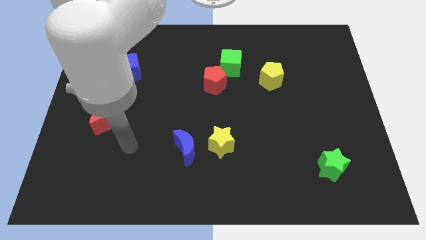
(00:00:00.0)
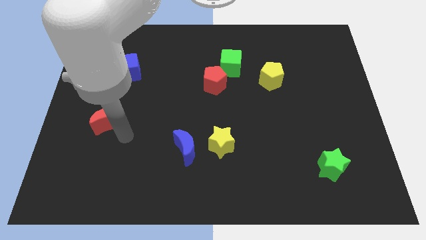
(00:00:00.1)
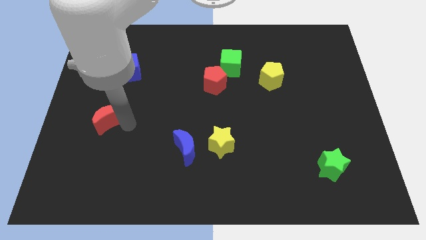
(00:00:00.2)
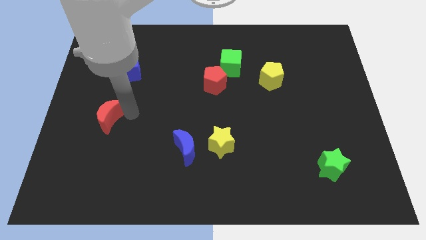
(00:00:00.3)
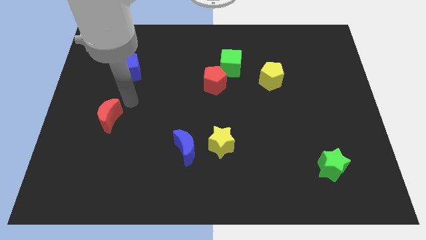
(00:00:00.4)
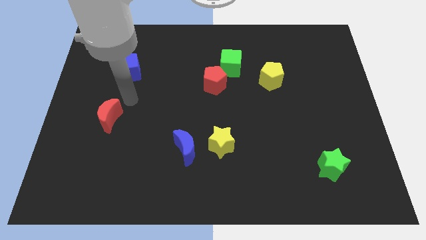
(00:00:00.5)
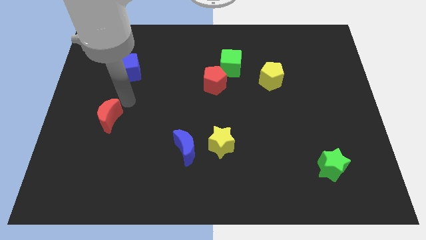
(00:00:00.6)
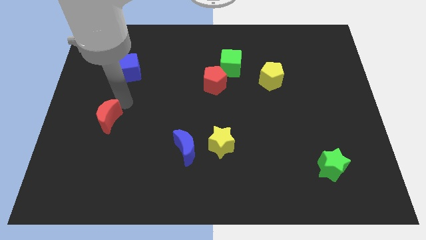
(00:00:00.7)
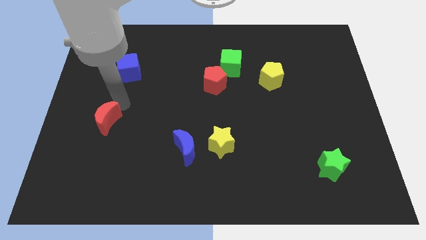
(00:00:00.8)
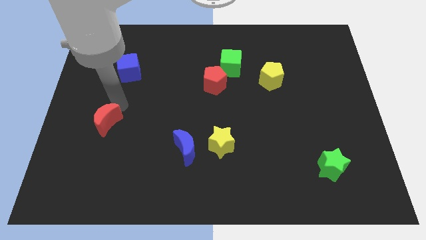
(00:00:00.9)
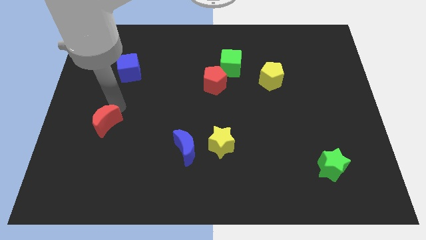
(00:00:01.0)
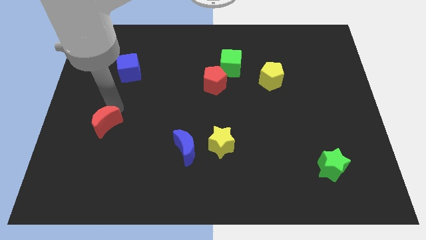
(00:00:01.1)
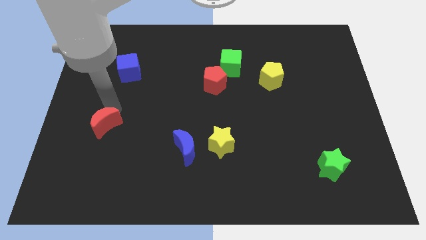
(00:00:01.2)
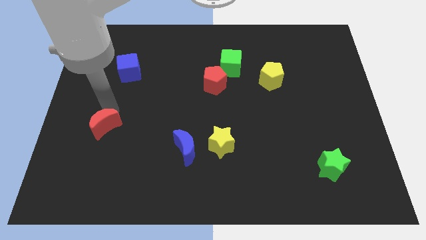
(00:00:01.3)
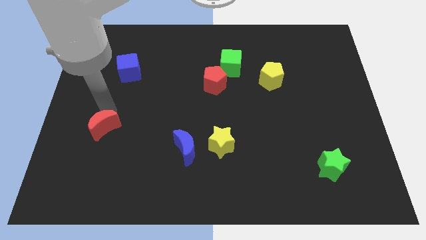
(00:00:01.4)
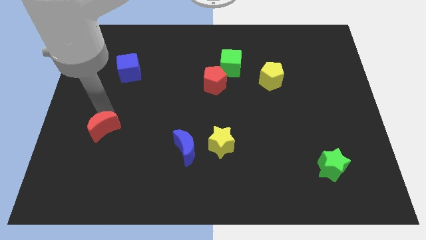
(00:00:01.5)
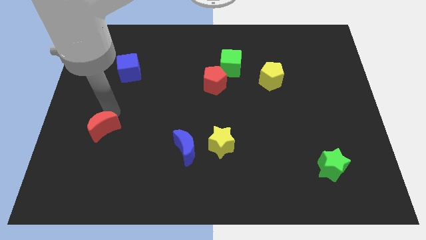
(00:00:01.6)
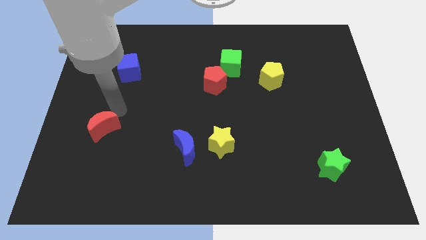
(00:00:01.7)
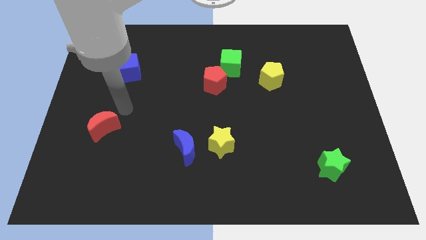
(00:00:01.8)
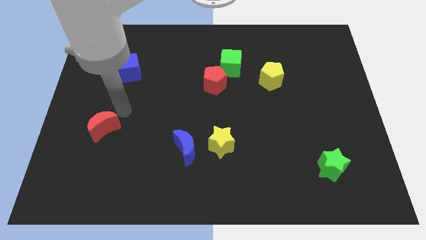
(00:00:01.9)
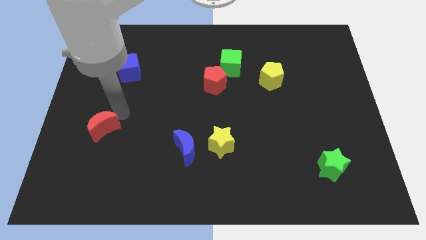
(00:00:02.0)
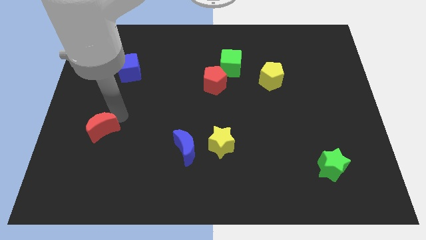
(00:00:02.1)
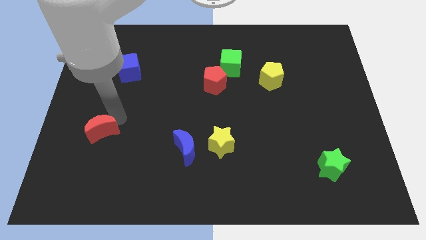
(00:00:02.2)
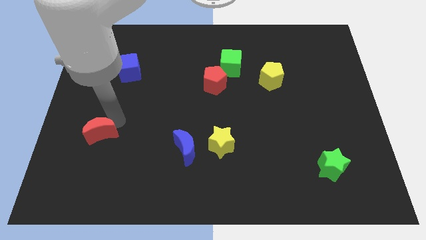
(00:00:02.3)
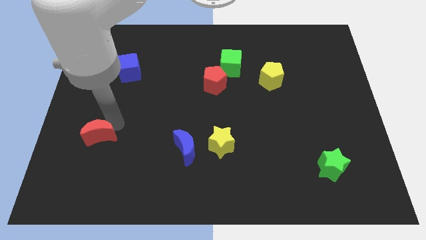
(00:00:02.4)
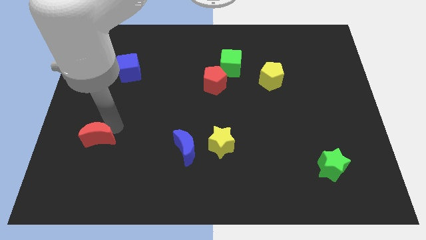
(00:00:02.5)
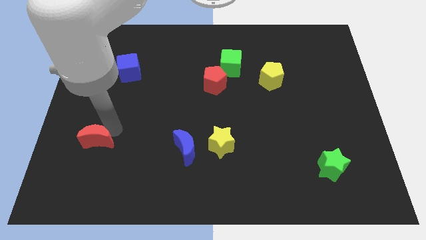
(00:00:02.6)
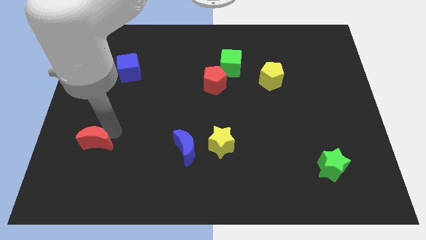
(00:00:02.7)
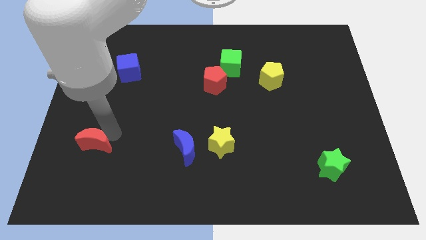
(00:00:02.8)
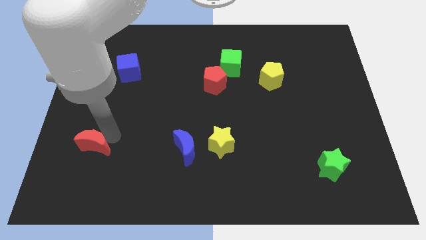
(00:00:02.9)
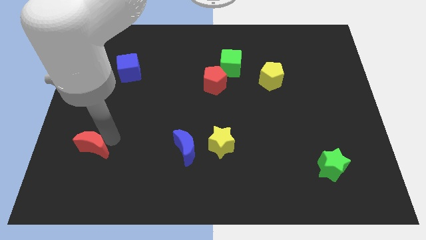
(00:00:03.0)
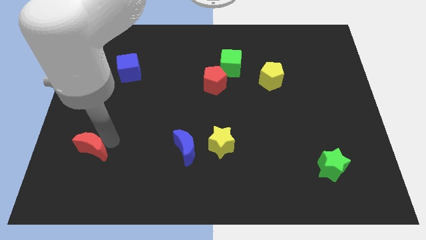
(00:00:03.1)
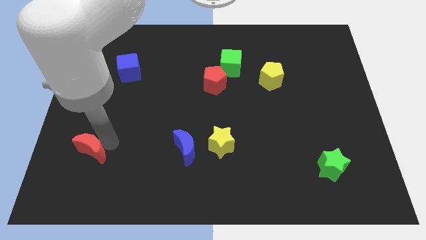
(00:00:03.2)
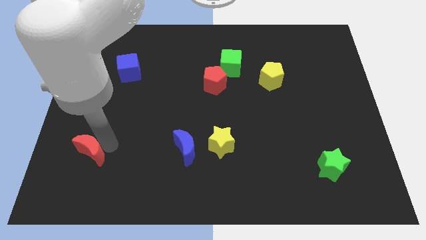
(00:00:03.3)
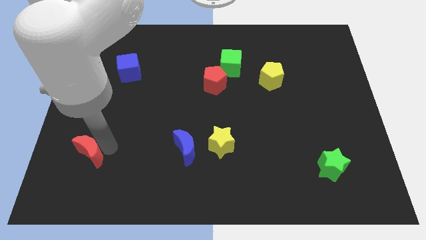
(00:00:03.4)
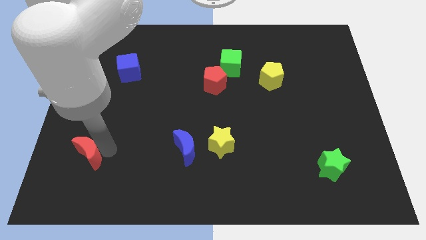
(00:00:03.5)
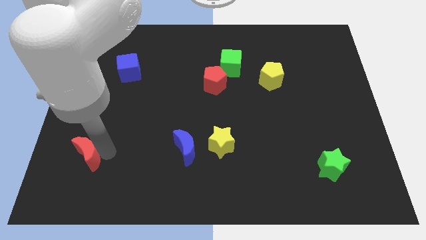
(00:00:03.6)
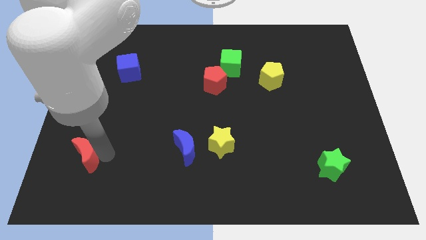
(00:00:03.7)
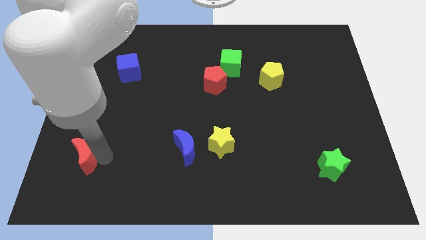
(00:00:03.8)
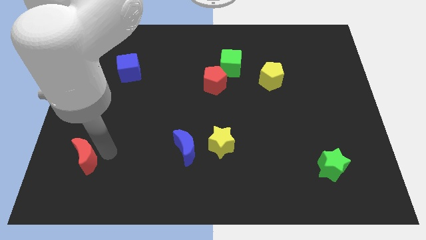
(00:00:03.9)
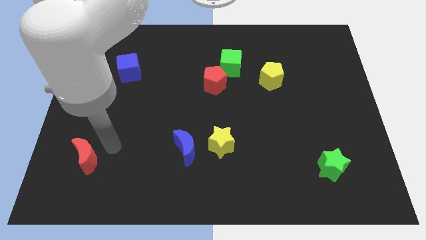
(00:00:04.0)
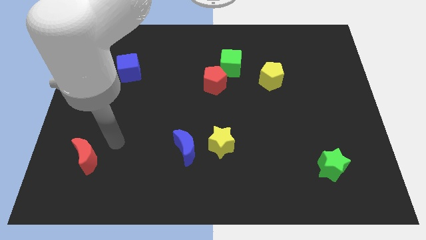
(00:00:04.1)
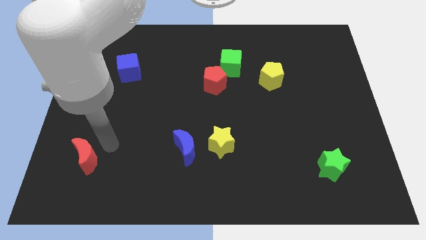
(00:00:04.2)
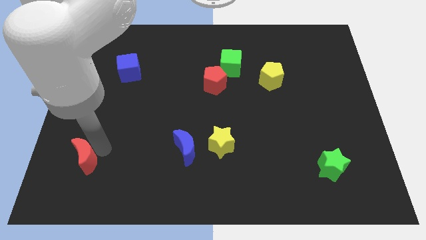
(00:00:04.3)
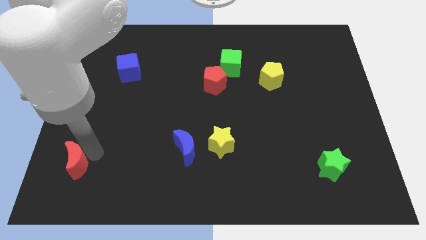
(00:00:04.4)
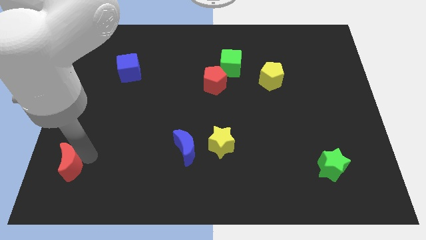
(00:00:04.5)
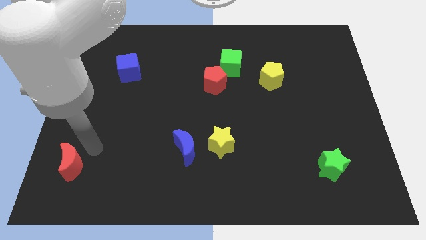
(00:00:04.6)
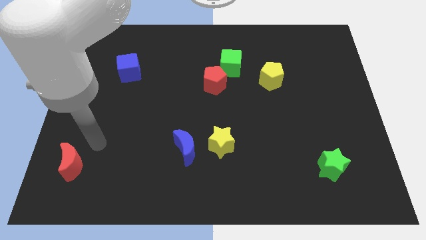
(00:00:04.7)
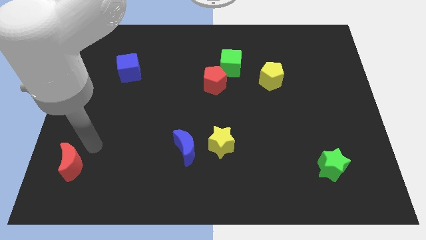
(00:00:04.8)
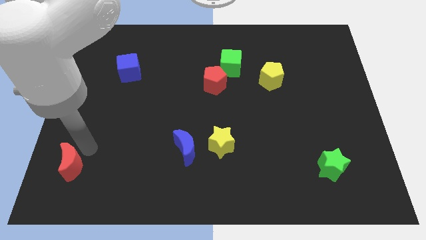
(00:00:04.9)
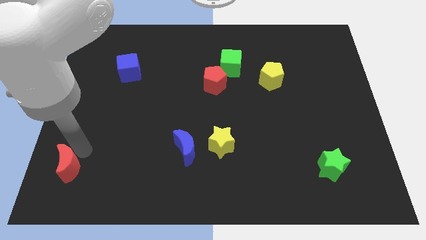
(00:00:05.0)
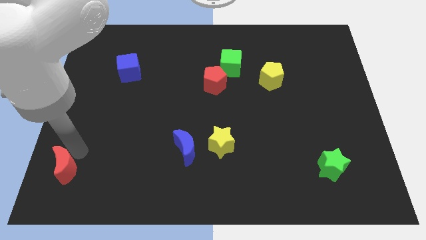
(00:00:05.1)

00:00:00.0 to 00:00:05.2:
move the red moon to the bottom left corner

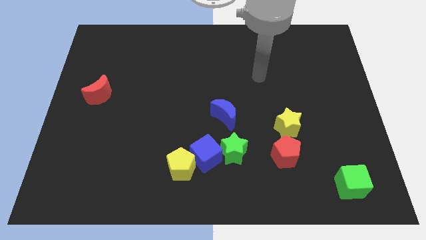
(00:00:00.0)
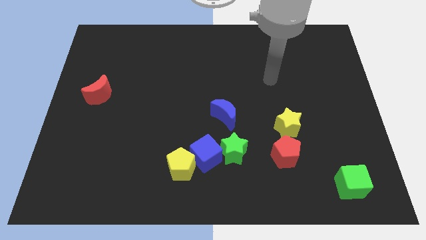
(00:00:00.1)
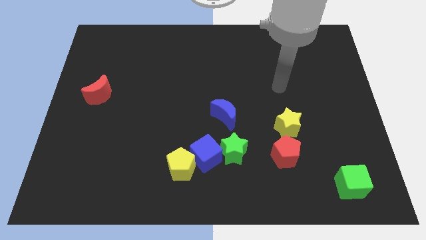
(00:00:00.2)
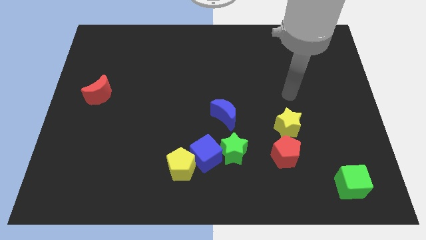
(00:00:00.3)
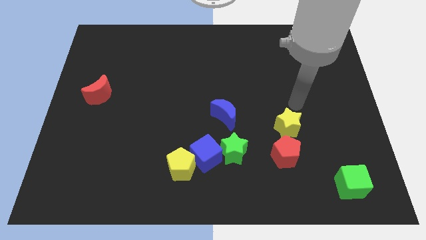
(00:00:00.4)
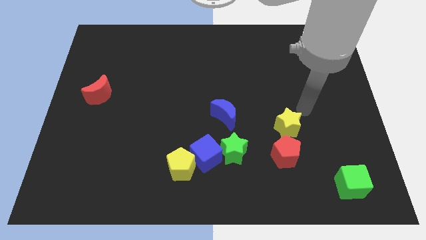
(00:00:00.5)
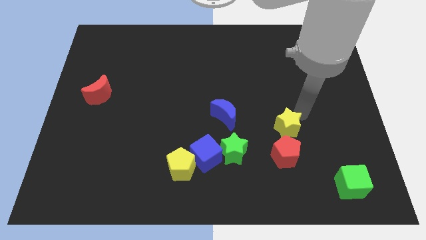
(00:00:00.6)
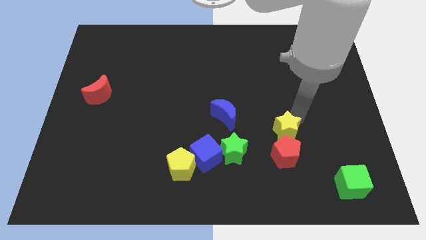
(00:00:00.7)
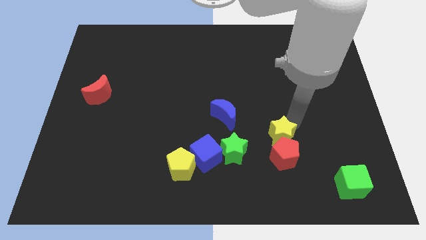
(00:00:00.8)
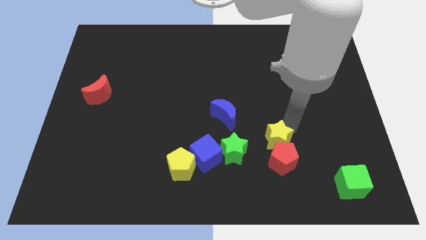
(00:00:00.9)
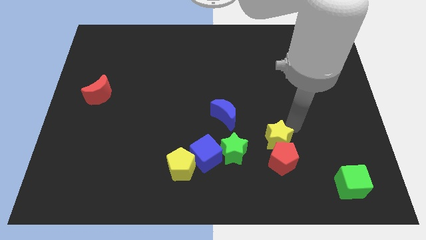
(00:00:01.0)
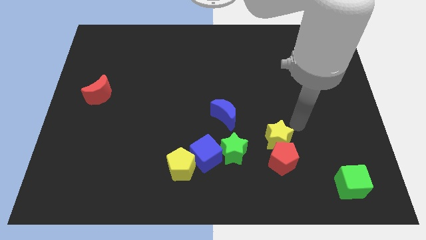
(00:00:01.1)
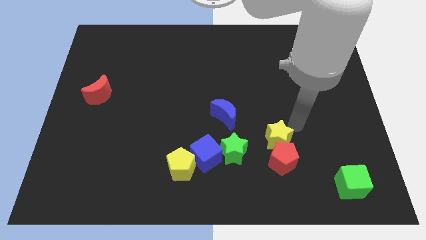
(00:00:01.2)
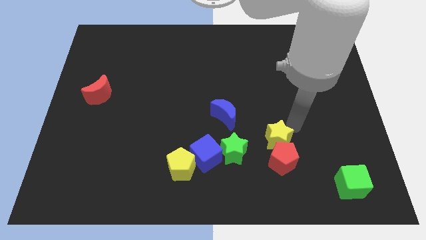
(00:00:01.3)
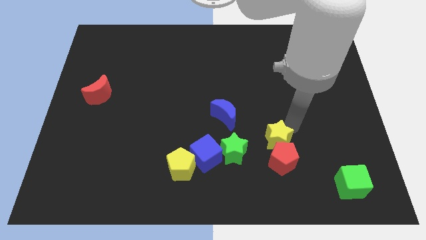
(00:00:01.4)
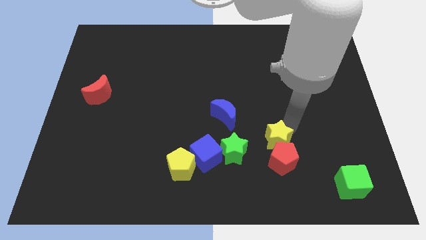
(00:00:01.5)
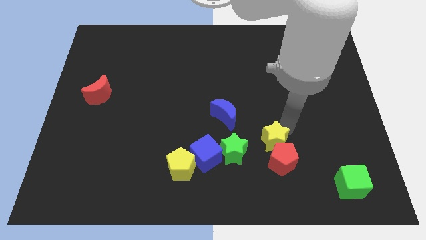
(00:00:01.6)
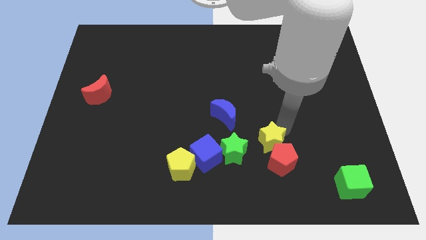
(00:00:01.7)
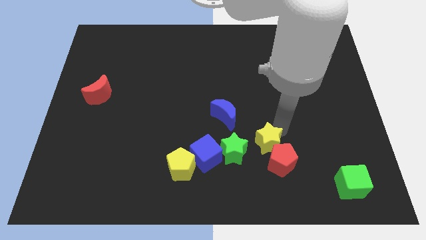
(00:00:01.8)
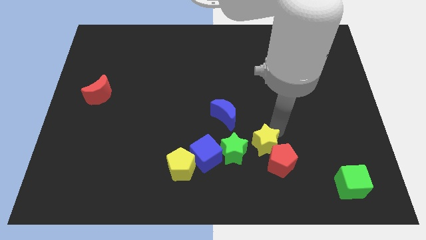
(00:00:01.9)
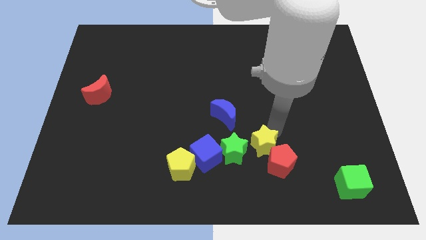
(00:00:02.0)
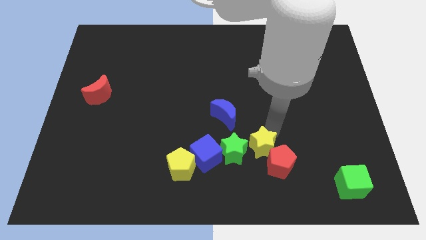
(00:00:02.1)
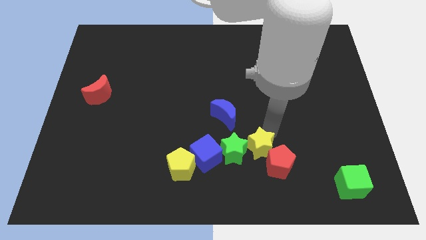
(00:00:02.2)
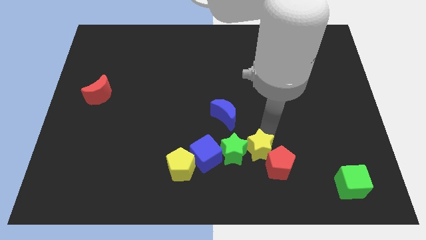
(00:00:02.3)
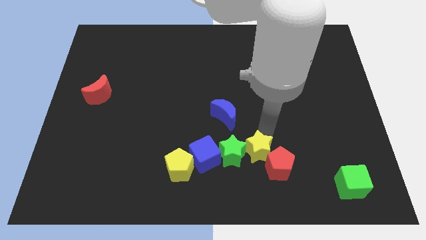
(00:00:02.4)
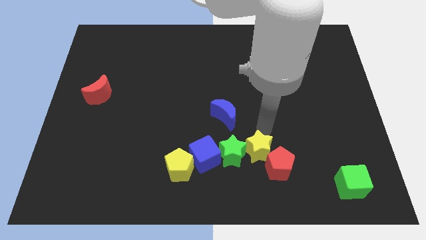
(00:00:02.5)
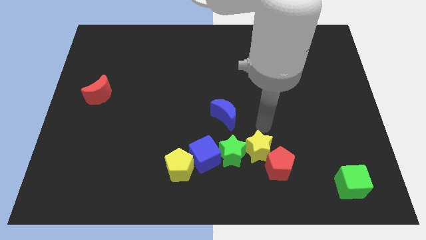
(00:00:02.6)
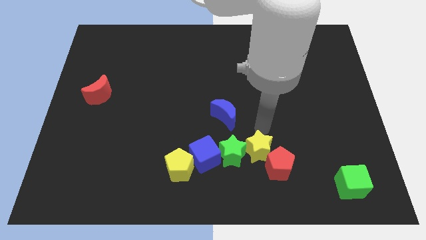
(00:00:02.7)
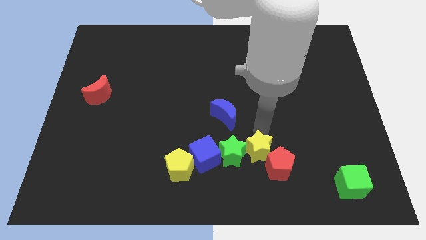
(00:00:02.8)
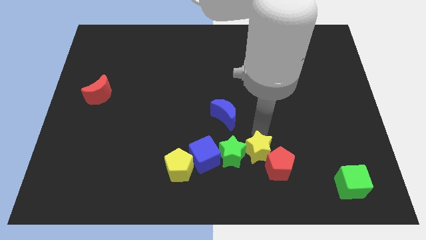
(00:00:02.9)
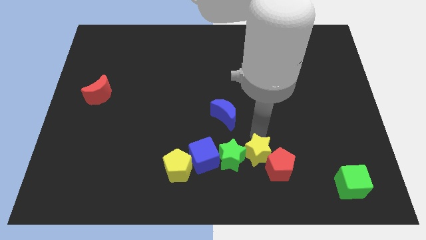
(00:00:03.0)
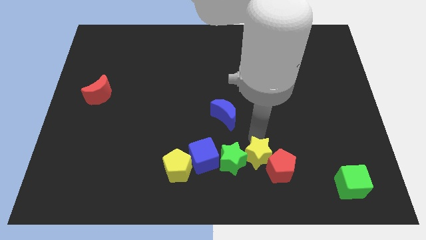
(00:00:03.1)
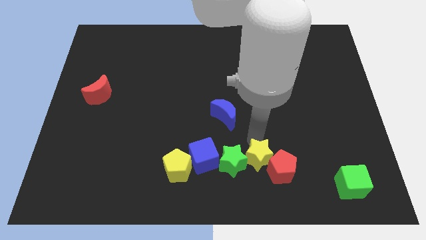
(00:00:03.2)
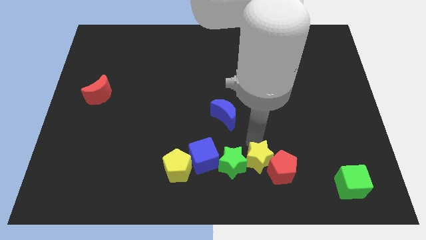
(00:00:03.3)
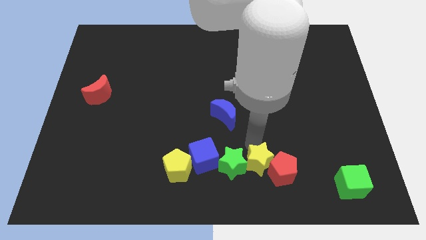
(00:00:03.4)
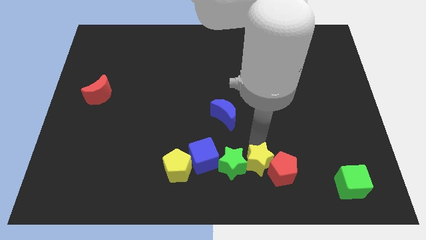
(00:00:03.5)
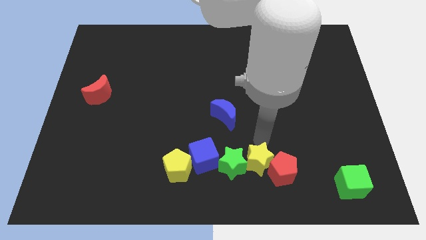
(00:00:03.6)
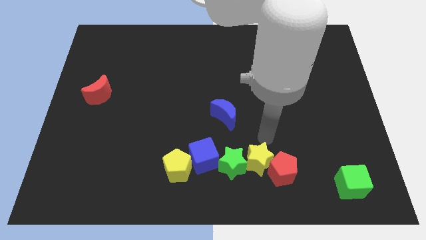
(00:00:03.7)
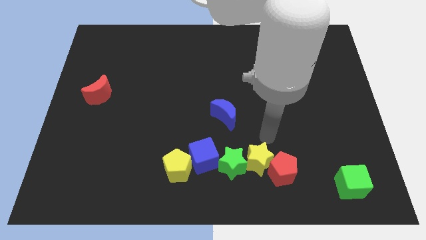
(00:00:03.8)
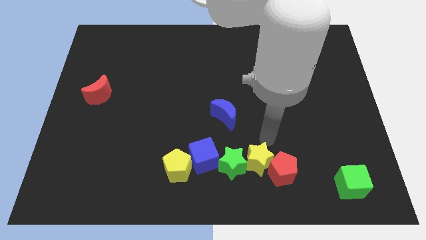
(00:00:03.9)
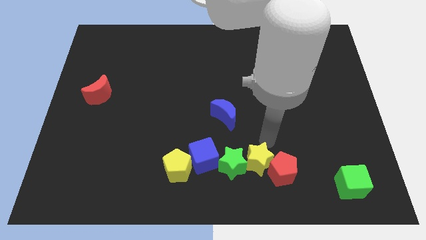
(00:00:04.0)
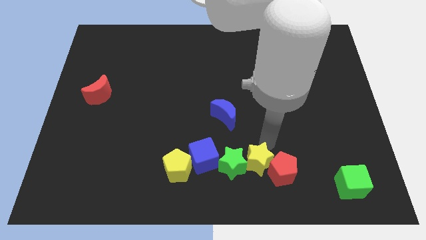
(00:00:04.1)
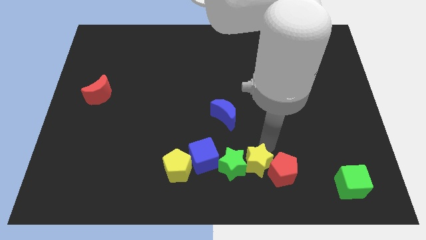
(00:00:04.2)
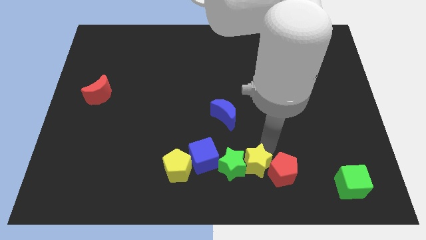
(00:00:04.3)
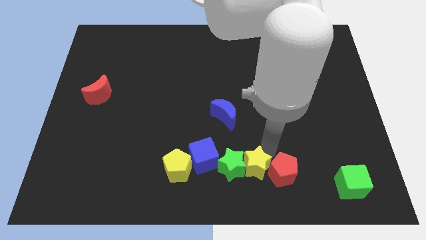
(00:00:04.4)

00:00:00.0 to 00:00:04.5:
slide the yellow star to the bottom
